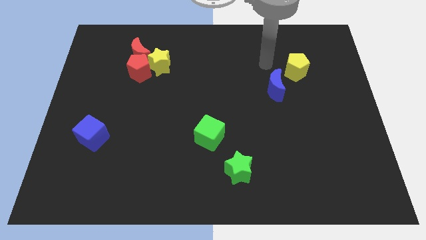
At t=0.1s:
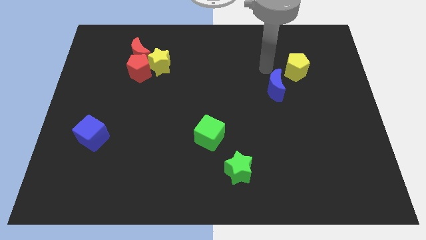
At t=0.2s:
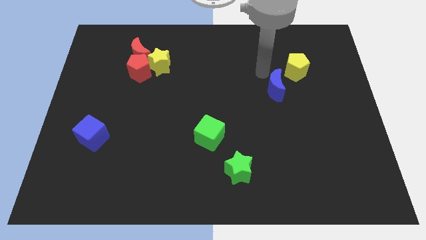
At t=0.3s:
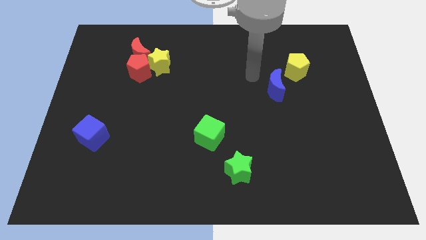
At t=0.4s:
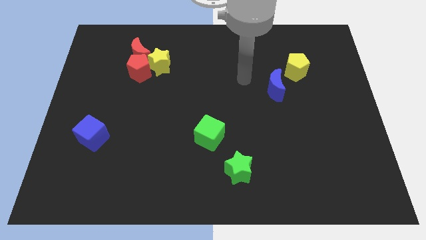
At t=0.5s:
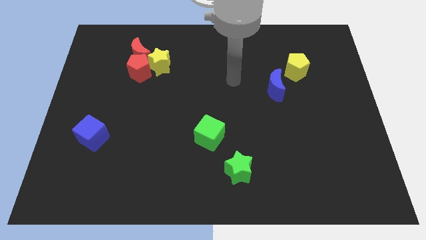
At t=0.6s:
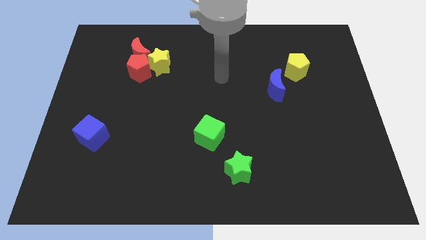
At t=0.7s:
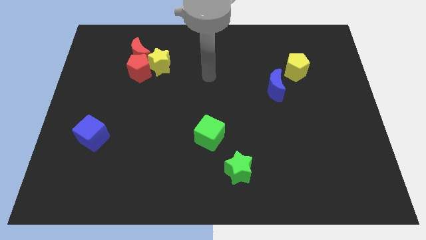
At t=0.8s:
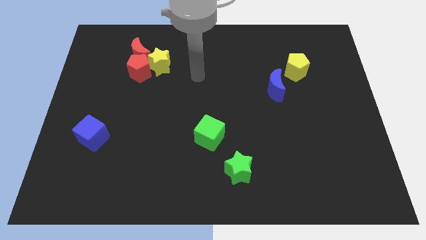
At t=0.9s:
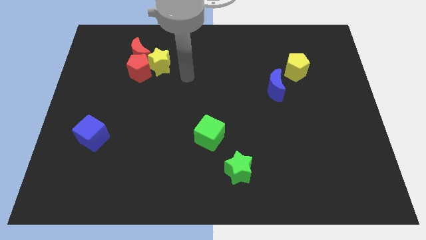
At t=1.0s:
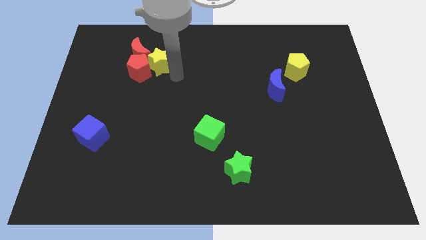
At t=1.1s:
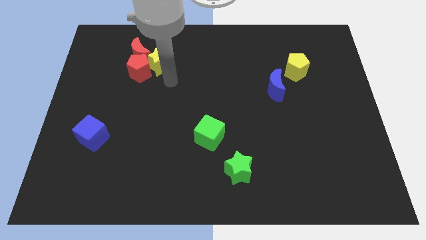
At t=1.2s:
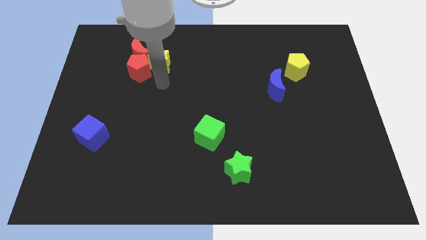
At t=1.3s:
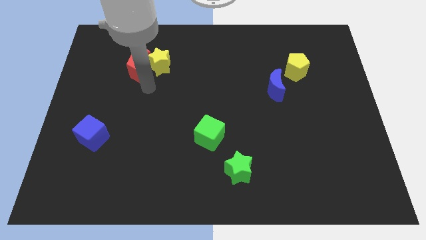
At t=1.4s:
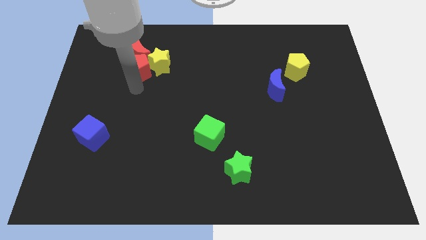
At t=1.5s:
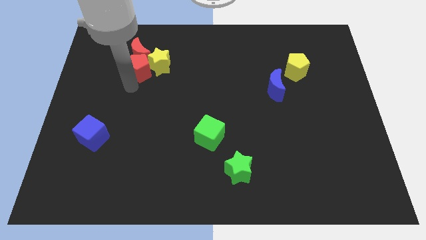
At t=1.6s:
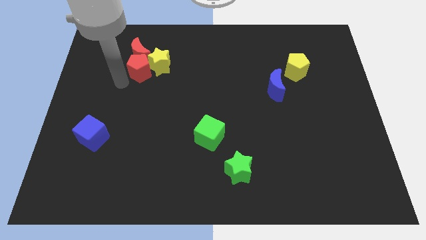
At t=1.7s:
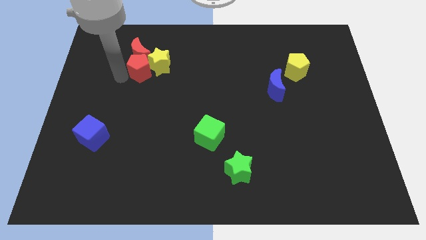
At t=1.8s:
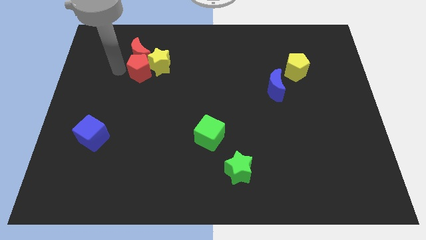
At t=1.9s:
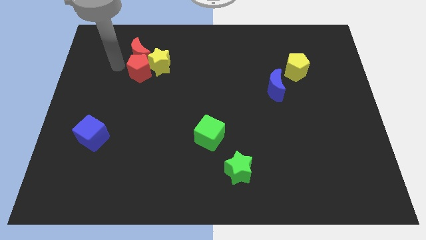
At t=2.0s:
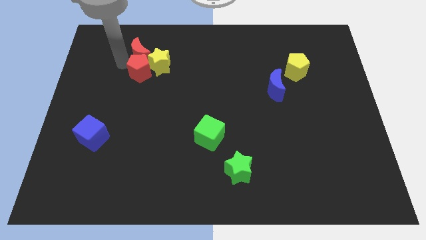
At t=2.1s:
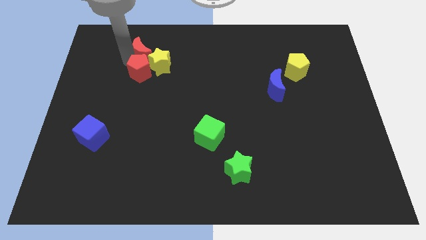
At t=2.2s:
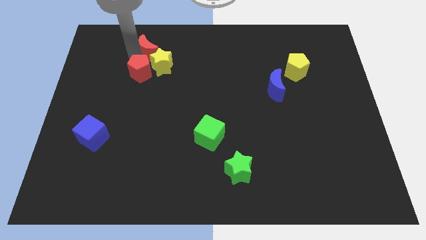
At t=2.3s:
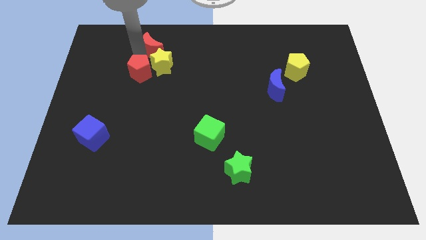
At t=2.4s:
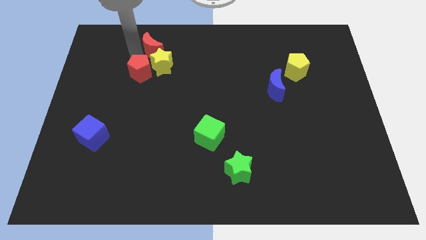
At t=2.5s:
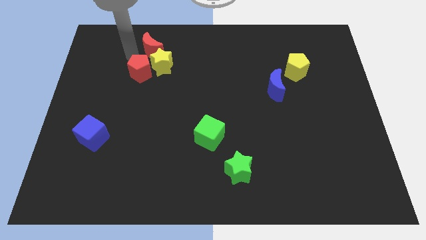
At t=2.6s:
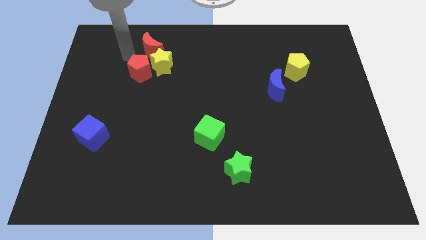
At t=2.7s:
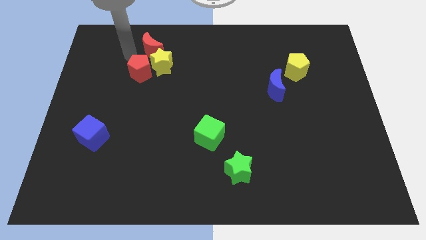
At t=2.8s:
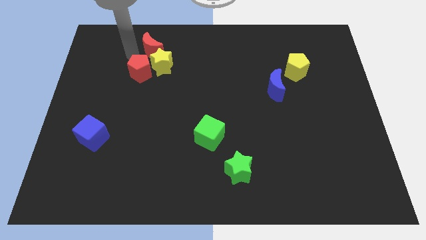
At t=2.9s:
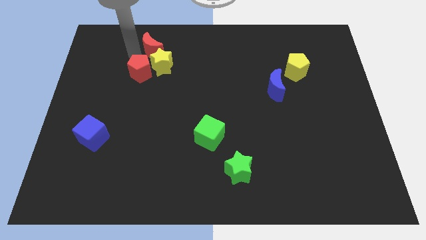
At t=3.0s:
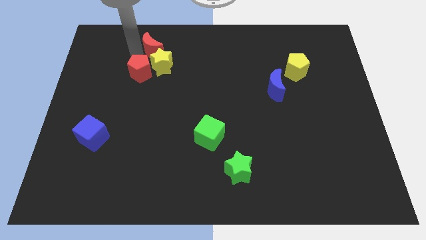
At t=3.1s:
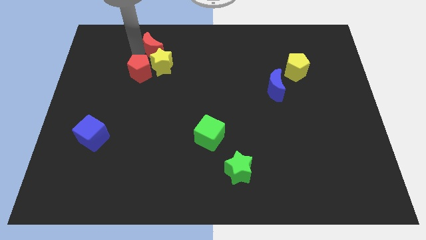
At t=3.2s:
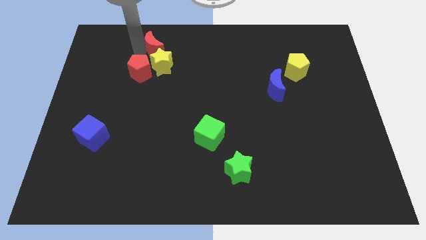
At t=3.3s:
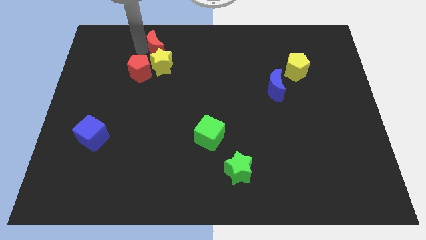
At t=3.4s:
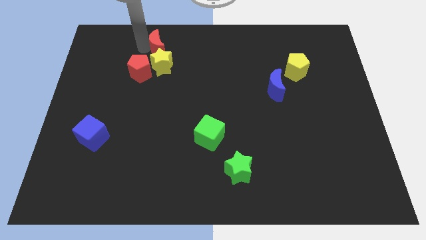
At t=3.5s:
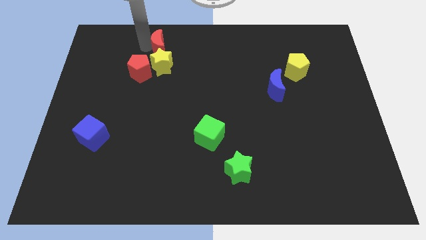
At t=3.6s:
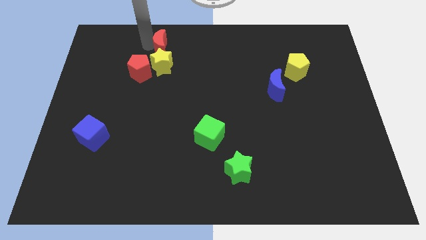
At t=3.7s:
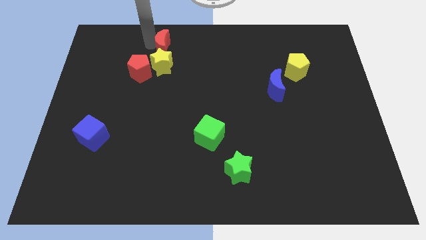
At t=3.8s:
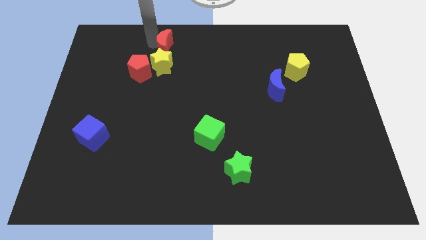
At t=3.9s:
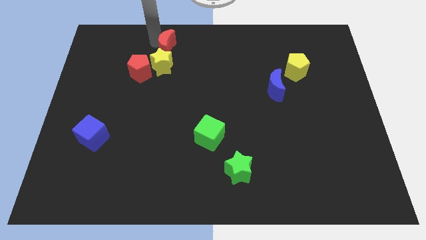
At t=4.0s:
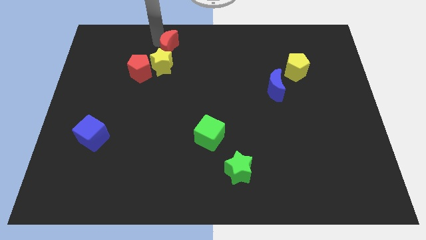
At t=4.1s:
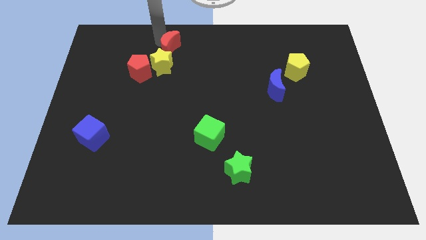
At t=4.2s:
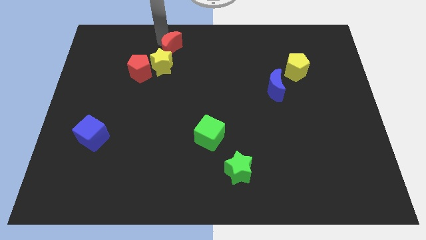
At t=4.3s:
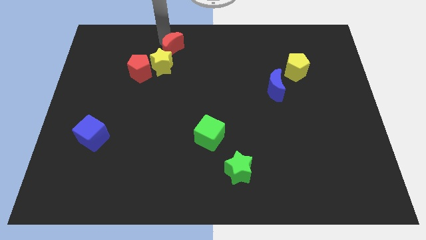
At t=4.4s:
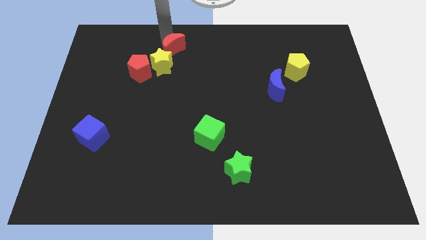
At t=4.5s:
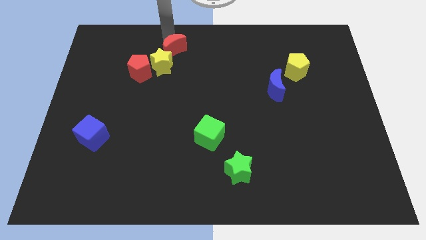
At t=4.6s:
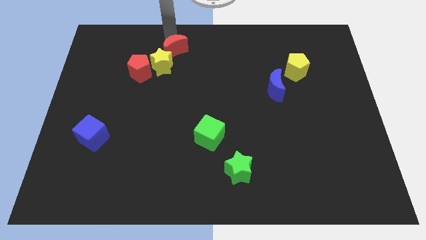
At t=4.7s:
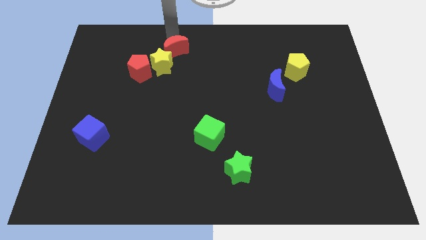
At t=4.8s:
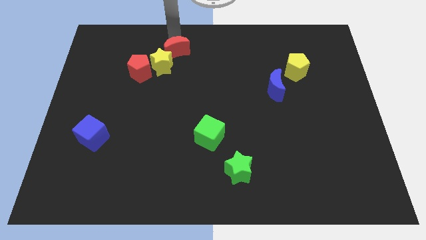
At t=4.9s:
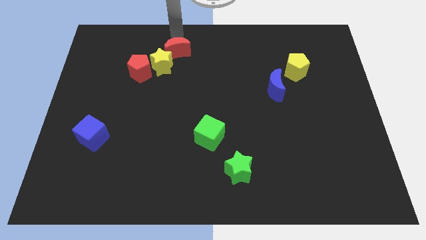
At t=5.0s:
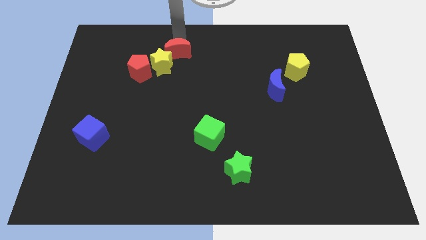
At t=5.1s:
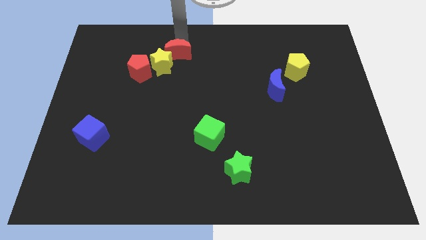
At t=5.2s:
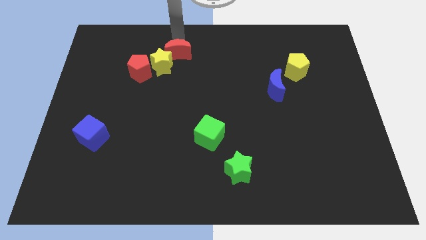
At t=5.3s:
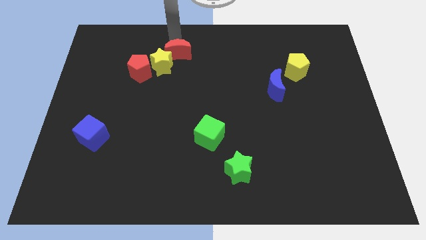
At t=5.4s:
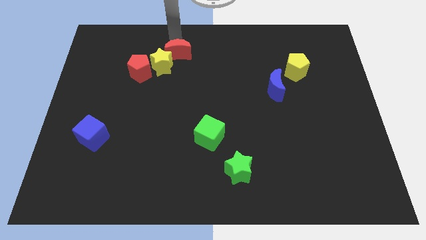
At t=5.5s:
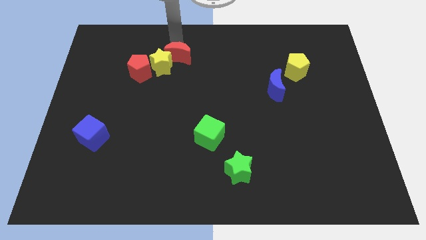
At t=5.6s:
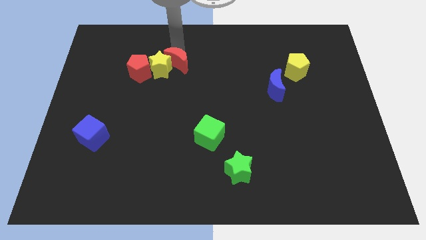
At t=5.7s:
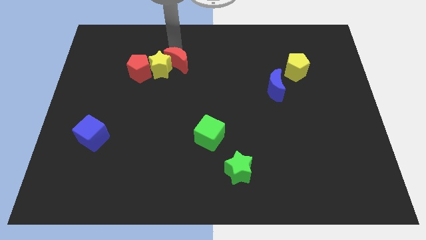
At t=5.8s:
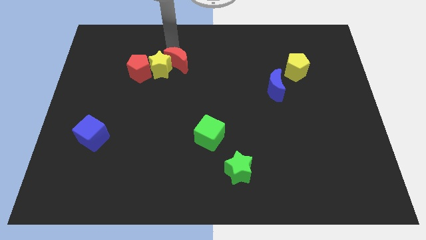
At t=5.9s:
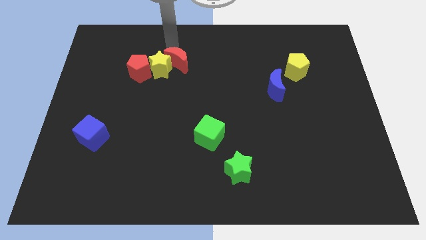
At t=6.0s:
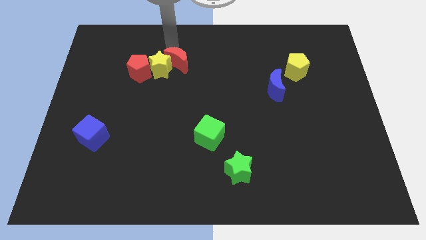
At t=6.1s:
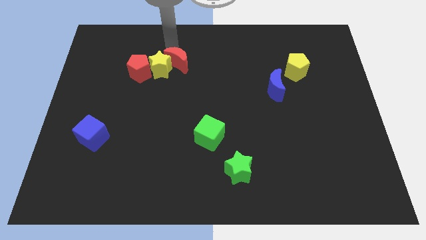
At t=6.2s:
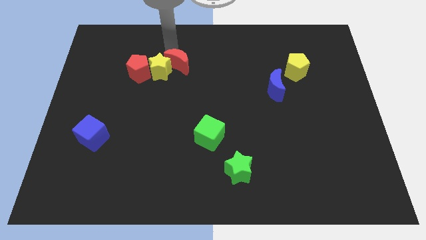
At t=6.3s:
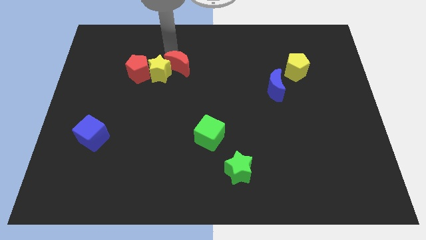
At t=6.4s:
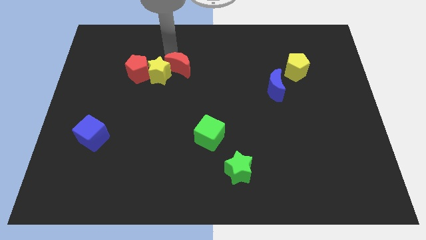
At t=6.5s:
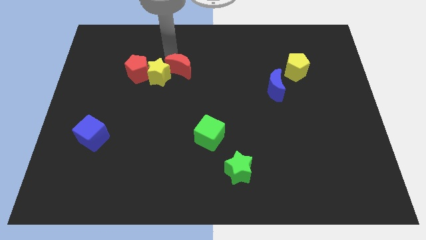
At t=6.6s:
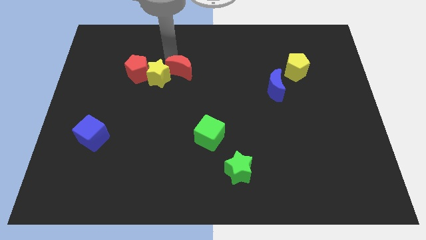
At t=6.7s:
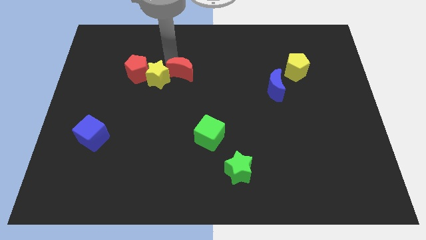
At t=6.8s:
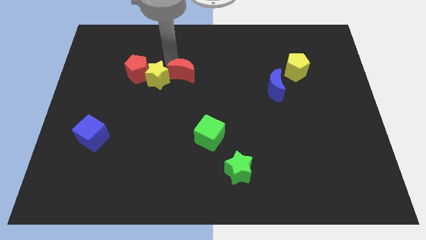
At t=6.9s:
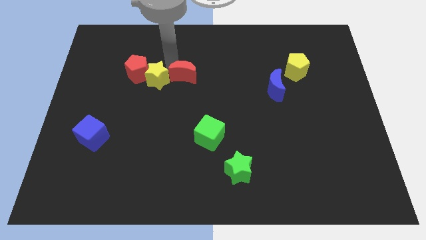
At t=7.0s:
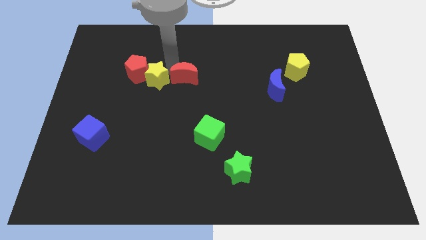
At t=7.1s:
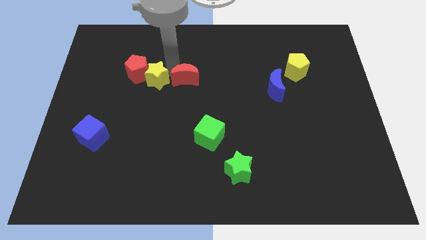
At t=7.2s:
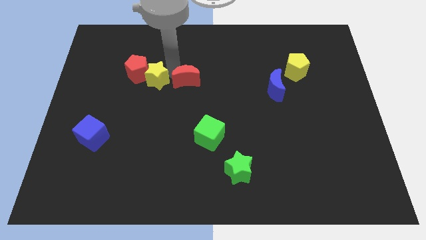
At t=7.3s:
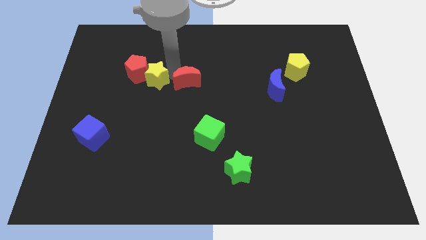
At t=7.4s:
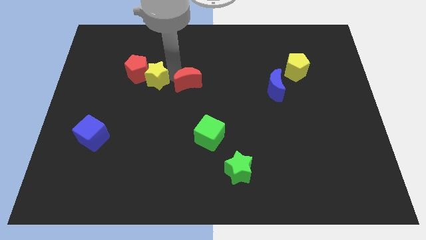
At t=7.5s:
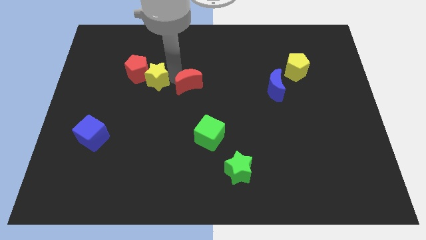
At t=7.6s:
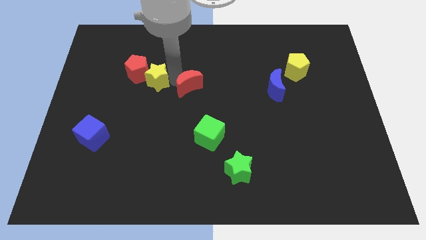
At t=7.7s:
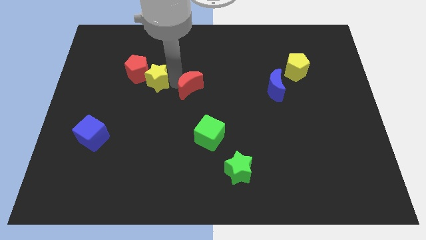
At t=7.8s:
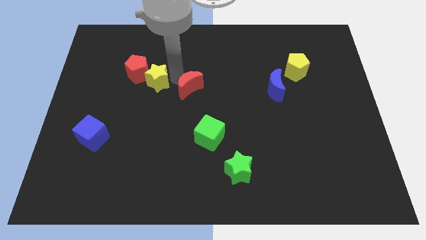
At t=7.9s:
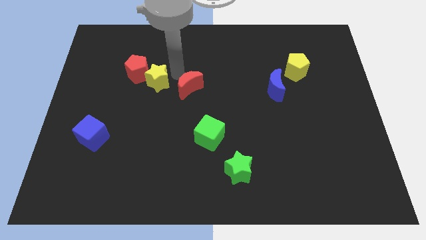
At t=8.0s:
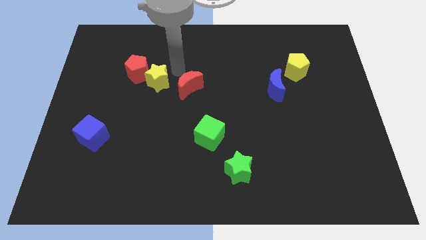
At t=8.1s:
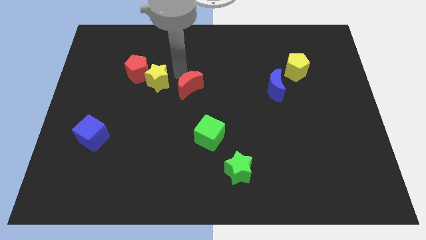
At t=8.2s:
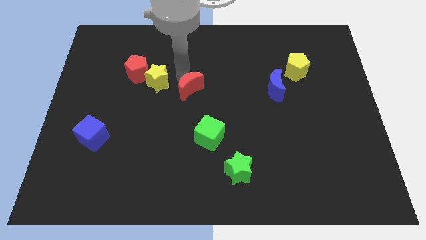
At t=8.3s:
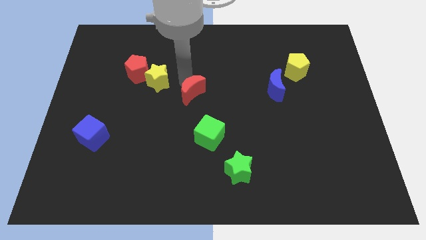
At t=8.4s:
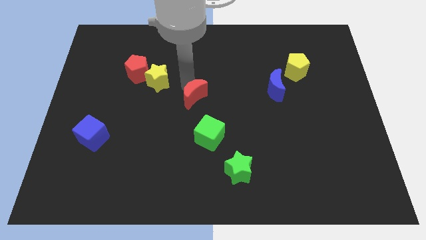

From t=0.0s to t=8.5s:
slide the red moon downwards and right
